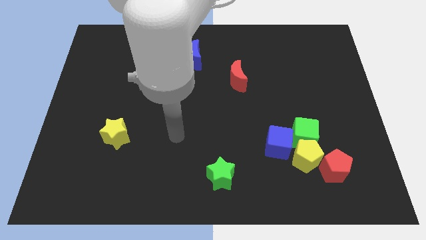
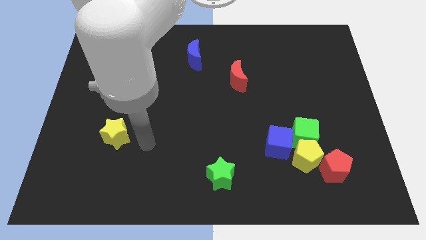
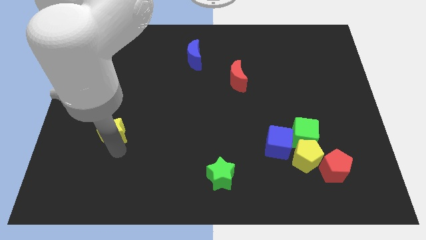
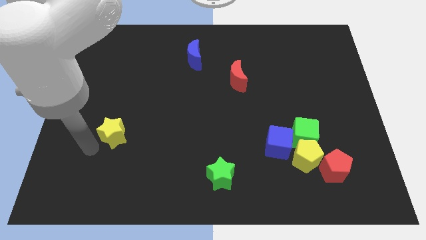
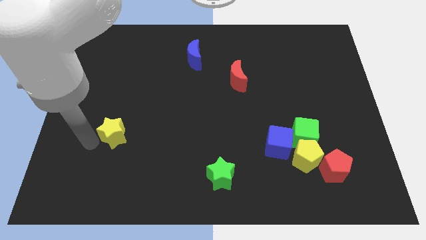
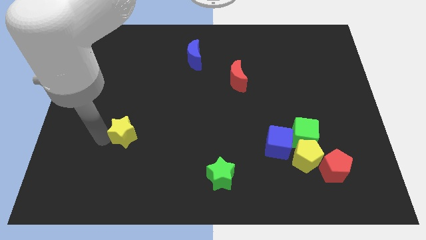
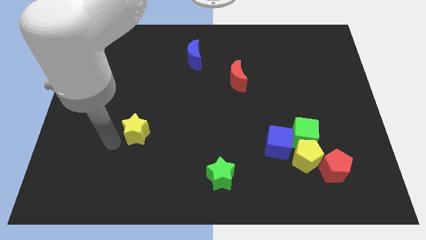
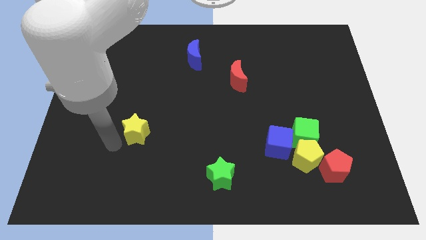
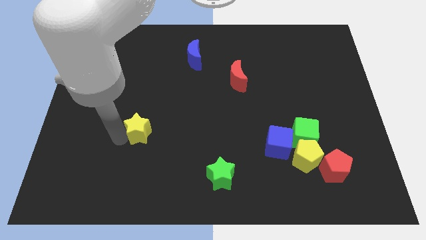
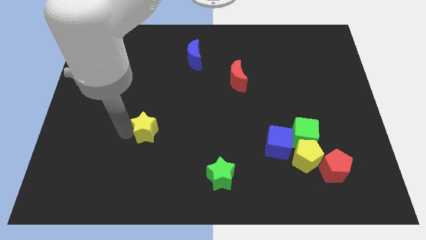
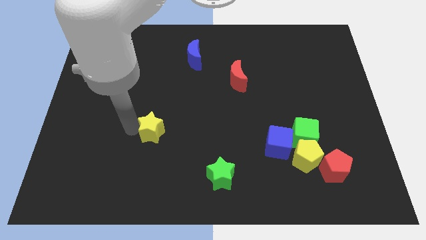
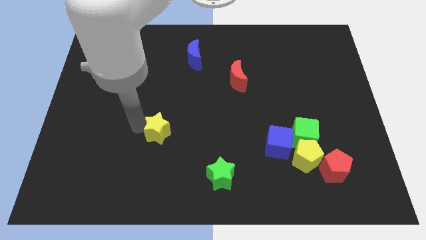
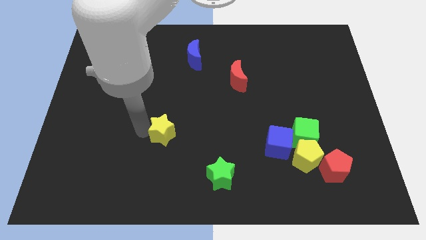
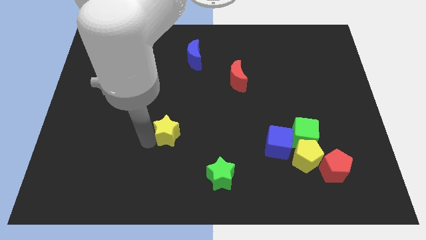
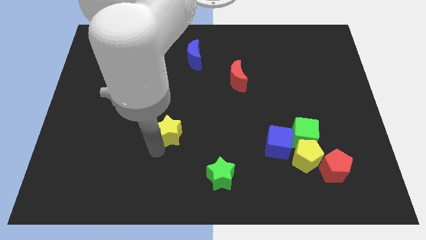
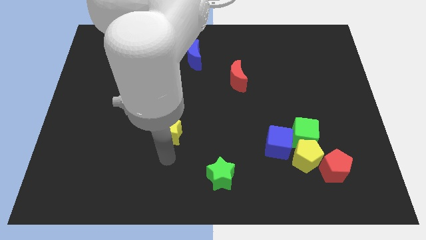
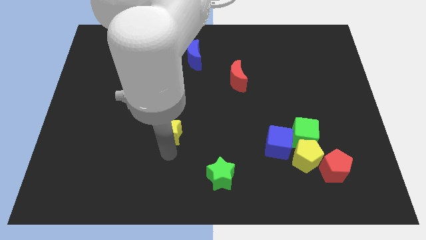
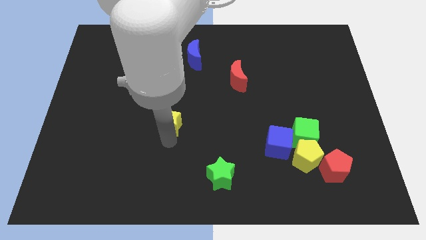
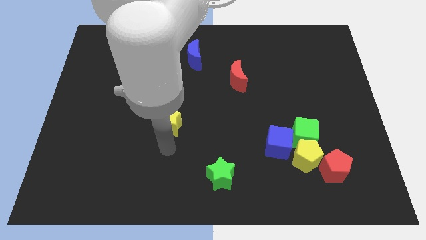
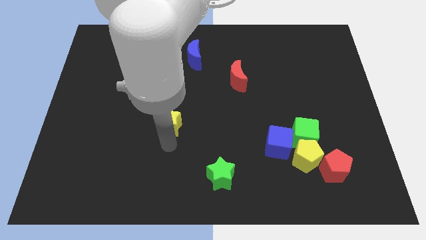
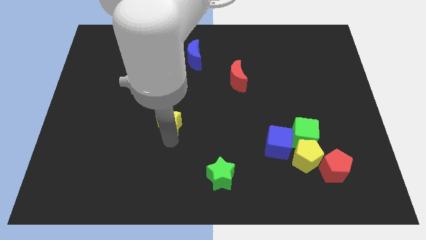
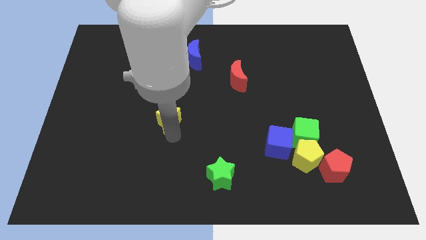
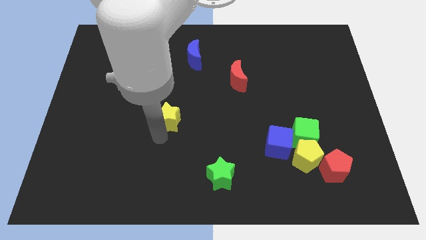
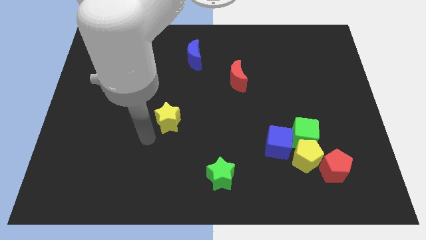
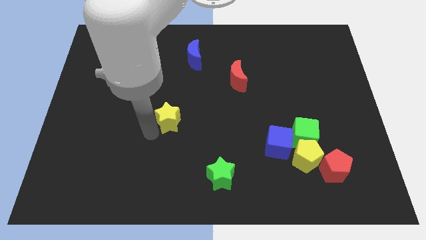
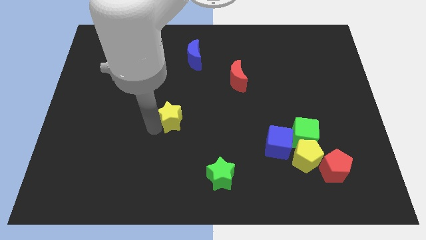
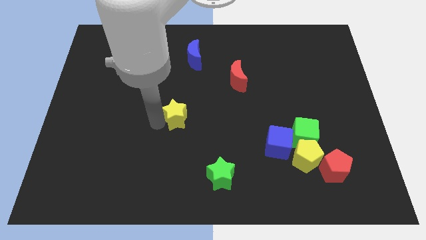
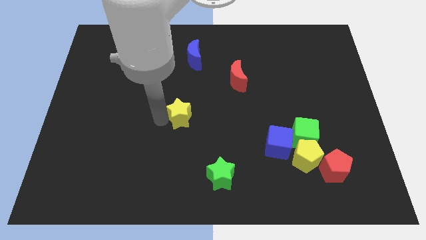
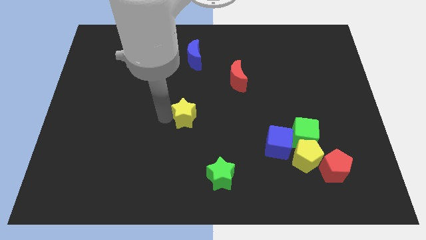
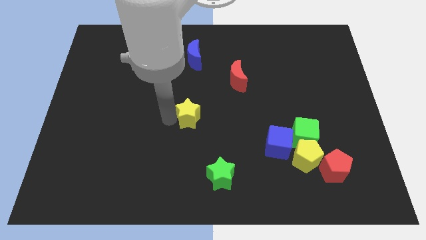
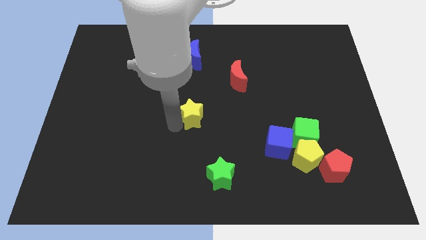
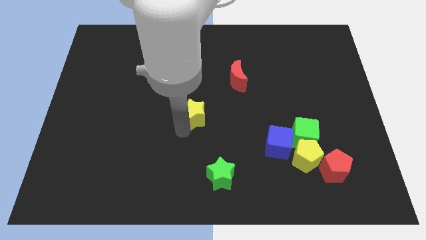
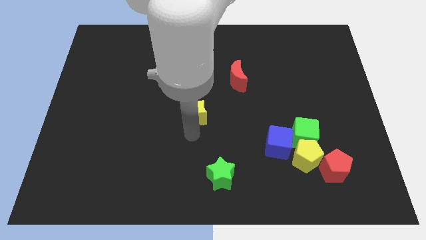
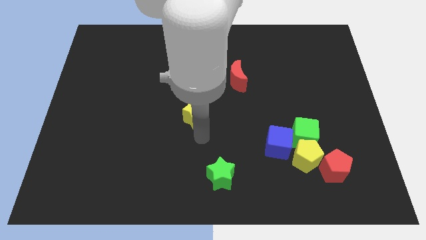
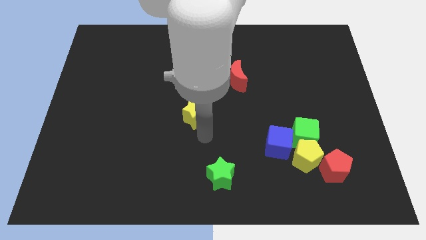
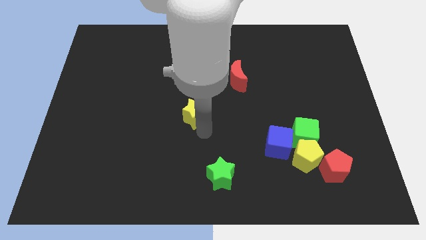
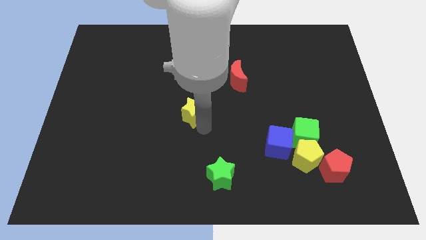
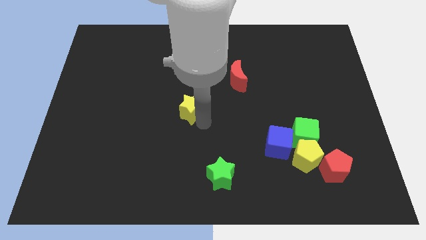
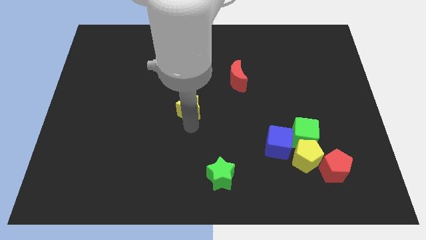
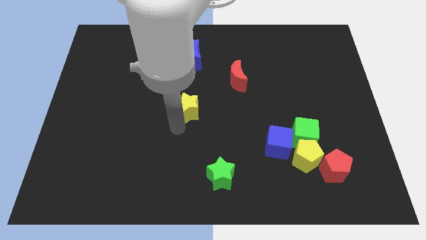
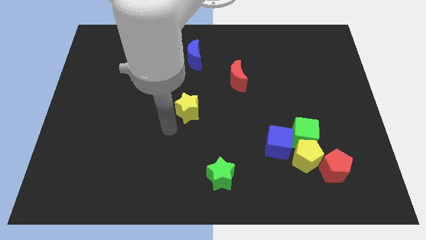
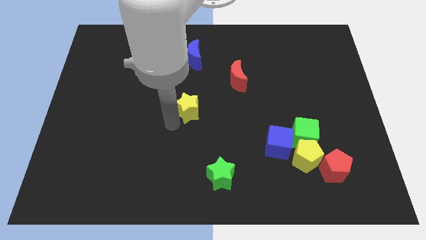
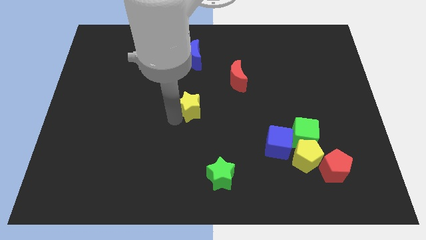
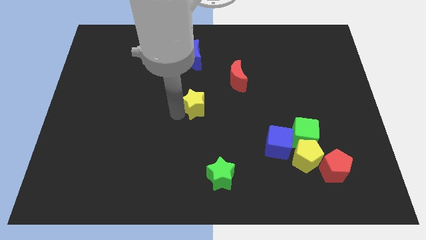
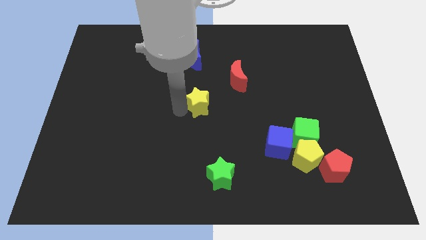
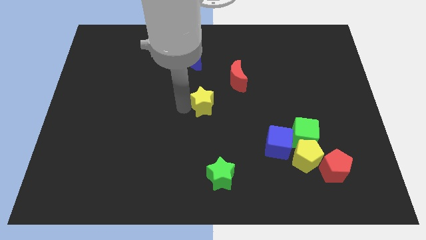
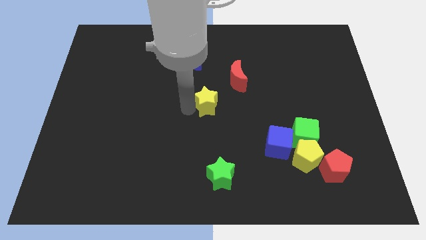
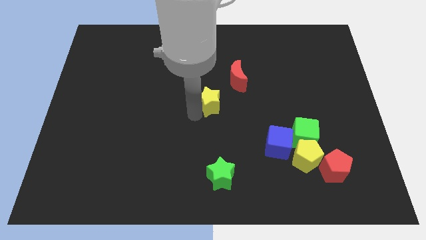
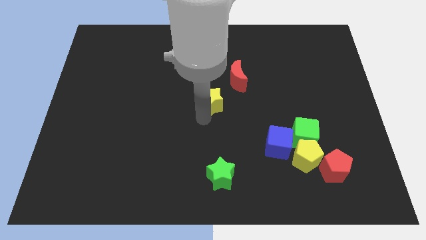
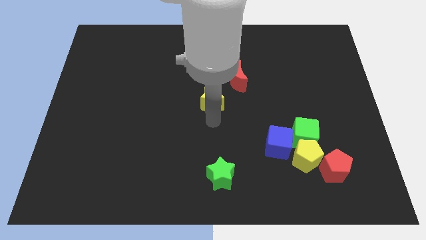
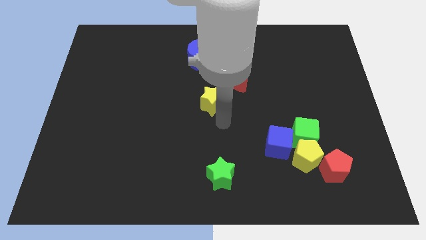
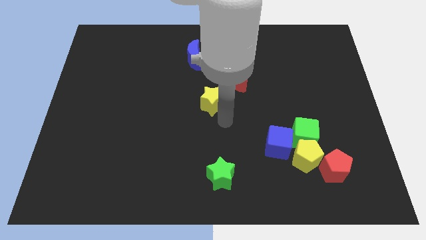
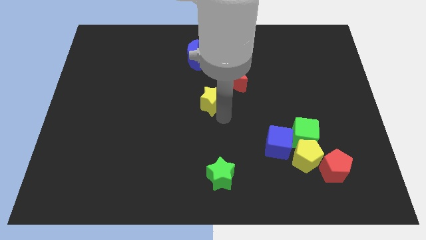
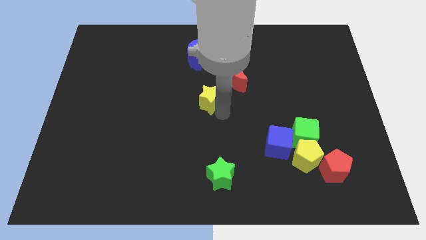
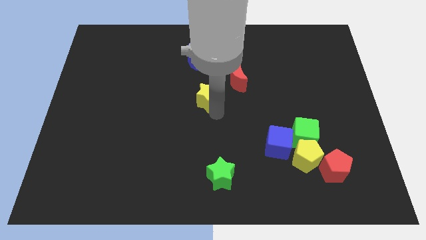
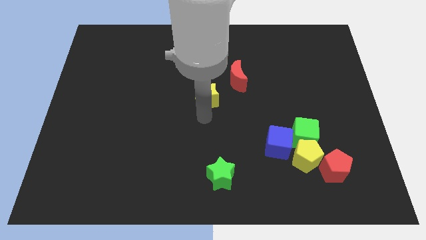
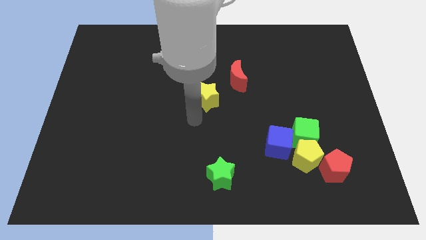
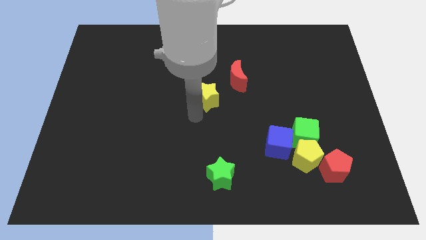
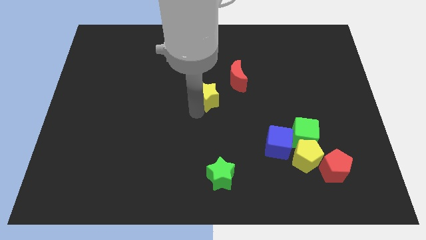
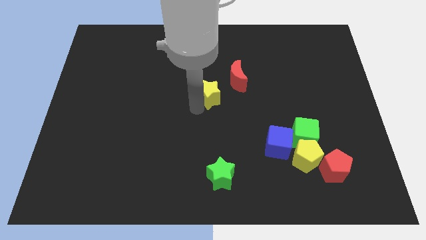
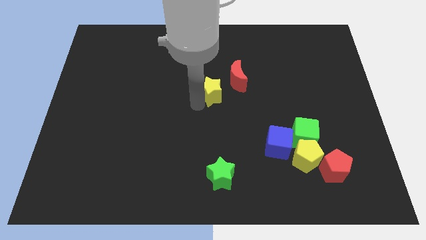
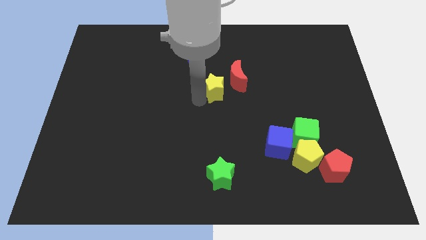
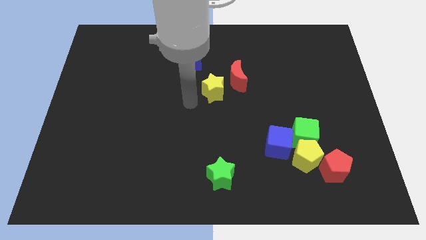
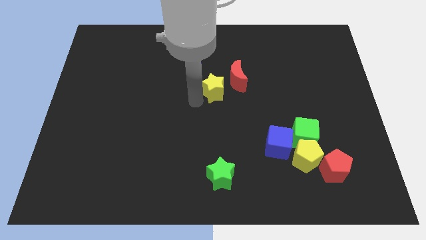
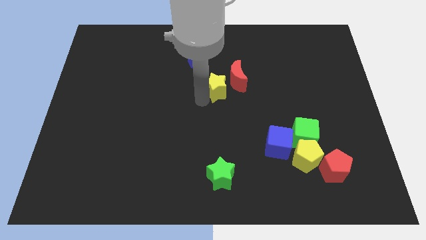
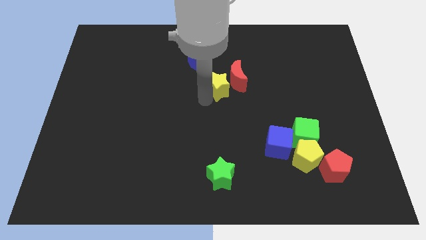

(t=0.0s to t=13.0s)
move the yellow star towards the red moon

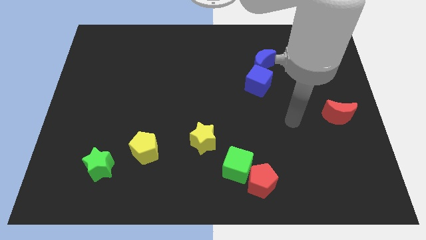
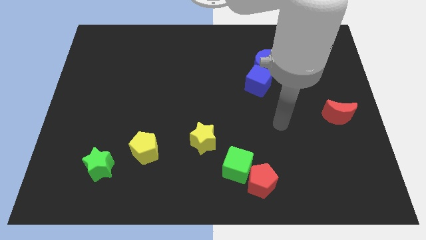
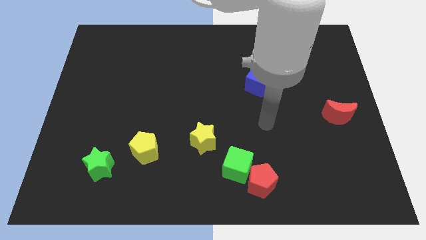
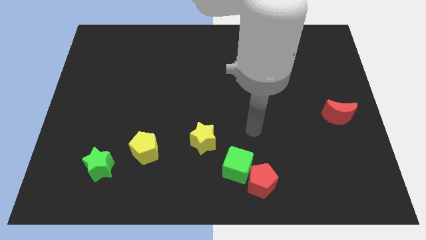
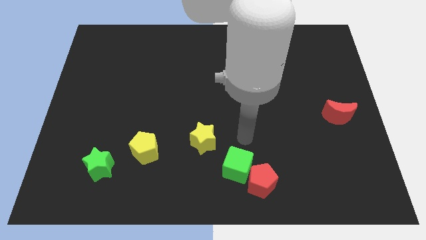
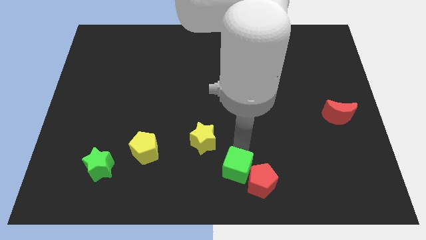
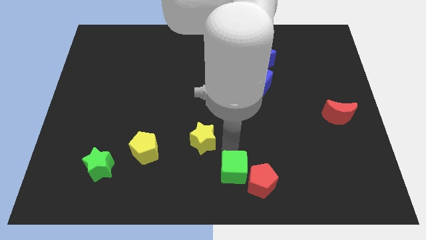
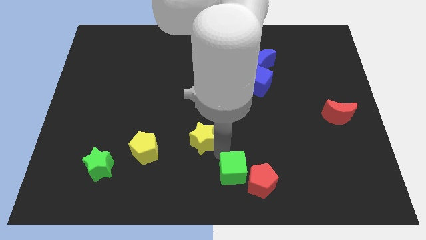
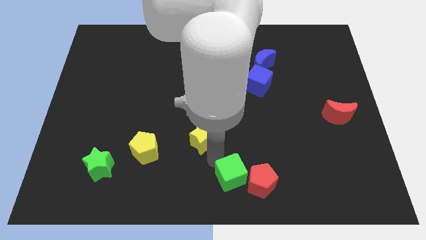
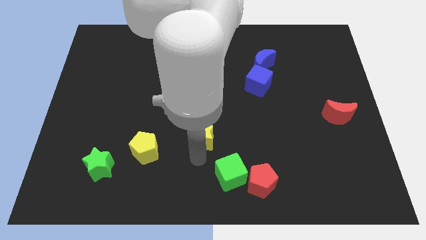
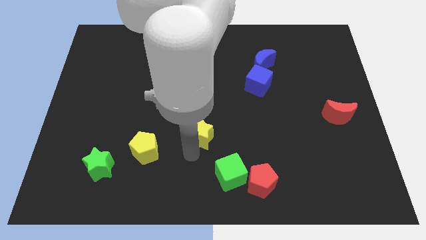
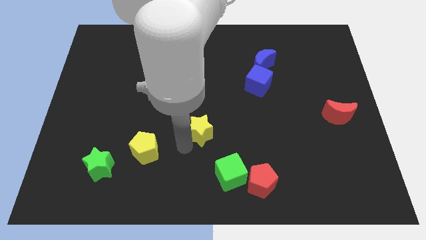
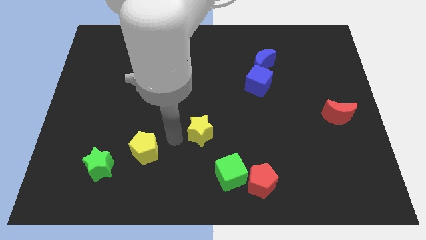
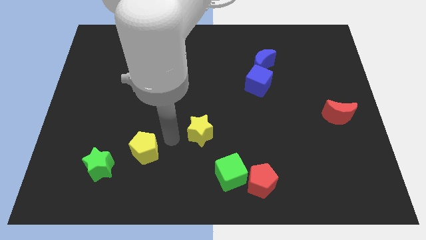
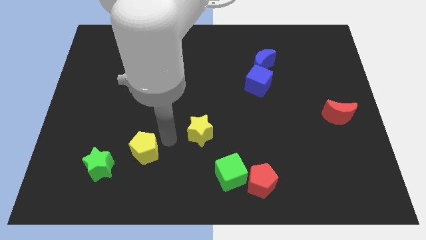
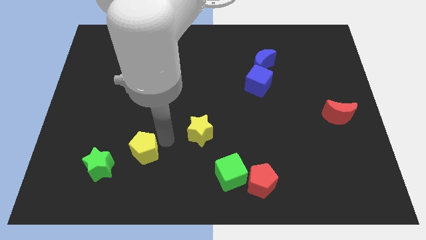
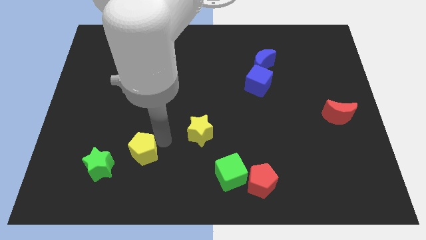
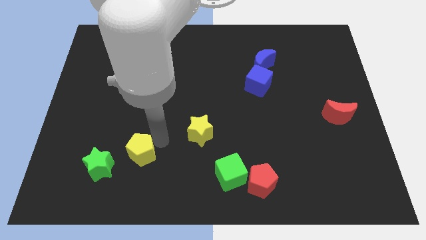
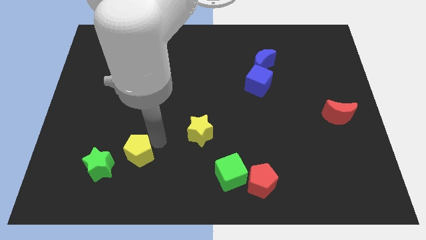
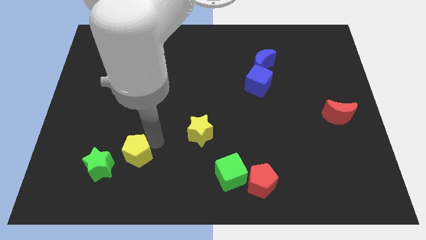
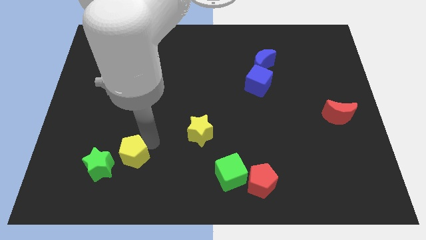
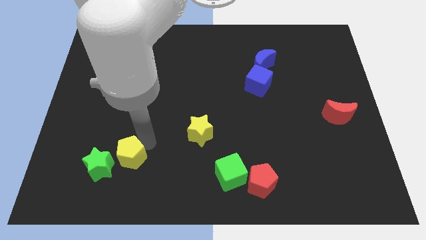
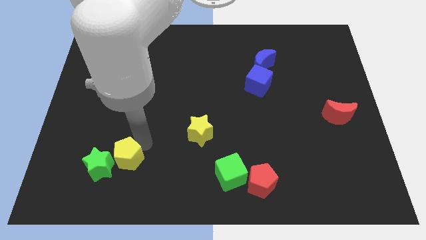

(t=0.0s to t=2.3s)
put the yellow pentagon next to the green star
